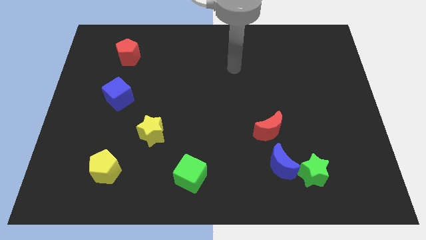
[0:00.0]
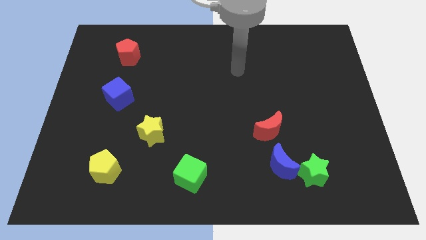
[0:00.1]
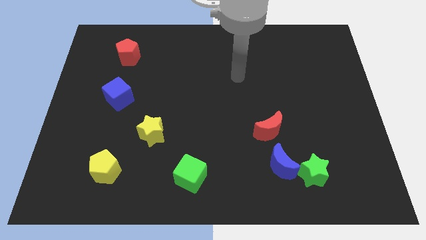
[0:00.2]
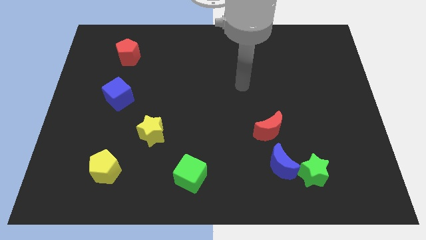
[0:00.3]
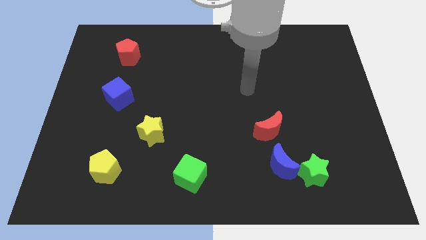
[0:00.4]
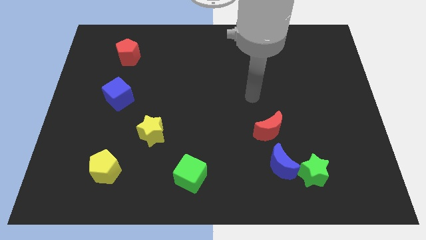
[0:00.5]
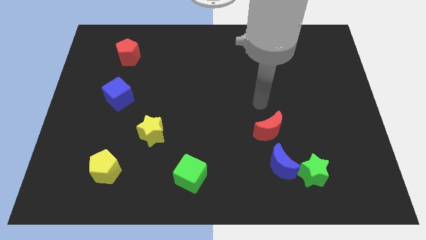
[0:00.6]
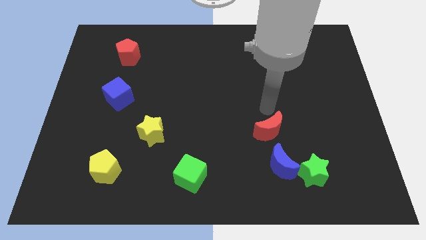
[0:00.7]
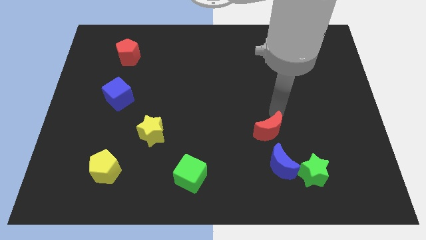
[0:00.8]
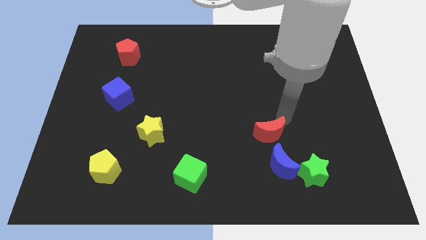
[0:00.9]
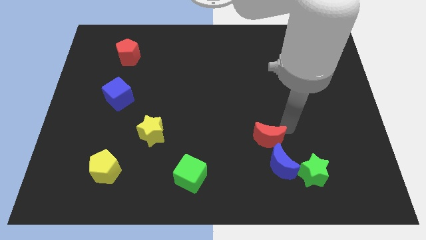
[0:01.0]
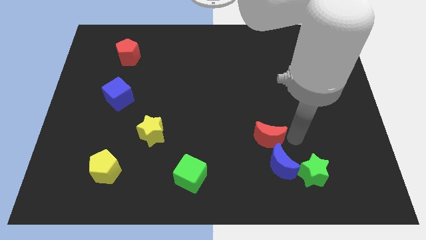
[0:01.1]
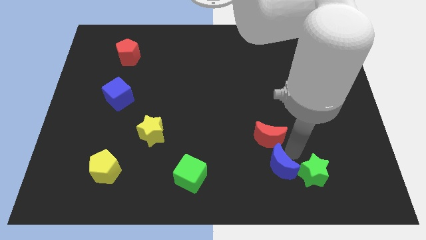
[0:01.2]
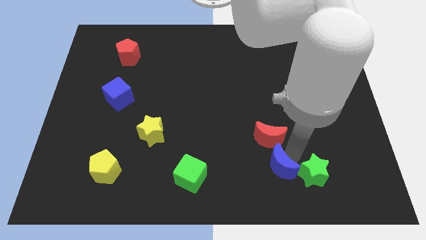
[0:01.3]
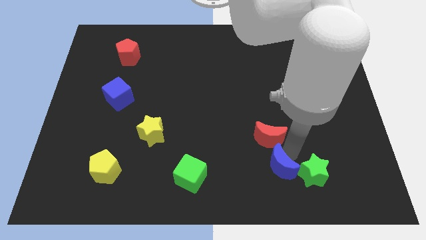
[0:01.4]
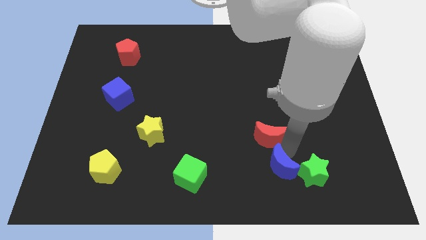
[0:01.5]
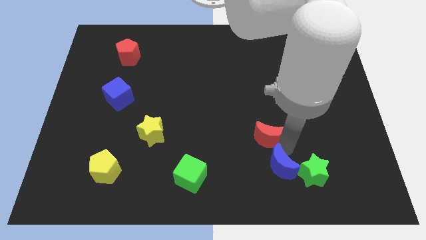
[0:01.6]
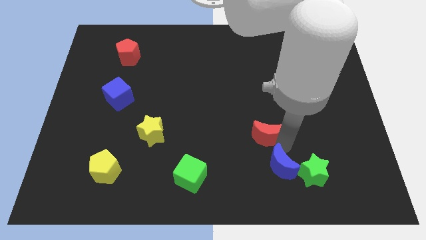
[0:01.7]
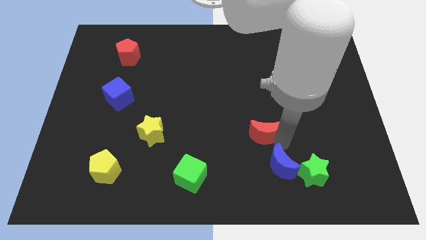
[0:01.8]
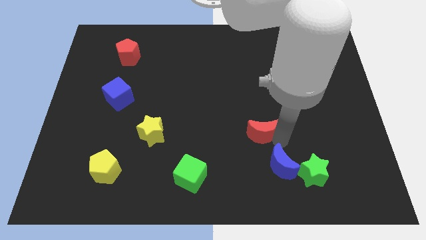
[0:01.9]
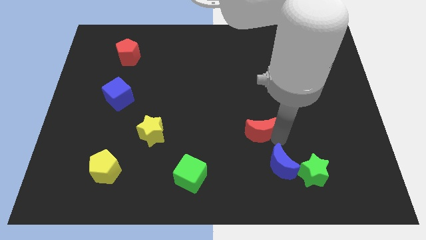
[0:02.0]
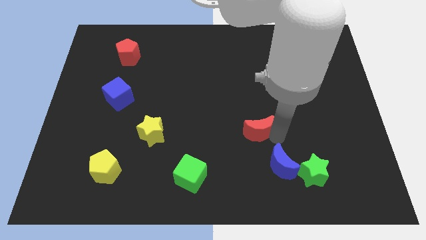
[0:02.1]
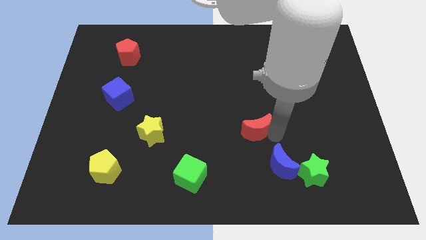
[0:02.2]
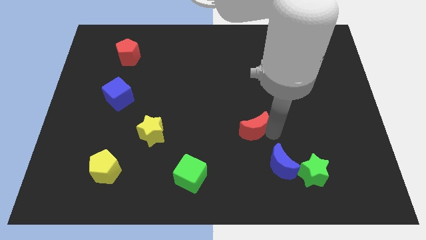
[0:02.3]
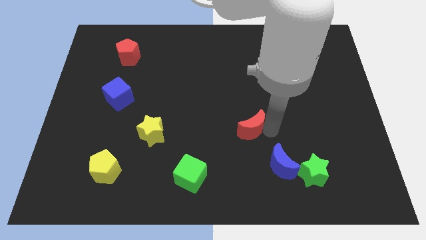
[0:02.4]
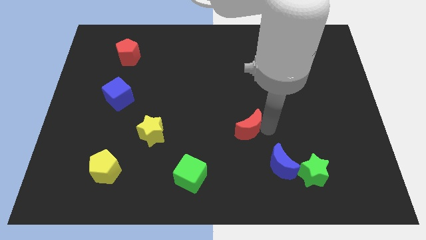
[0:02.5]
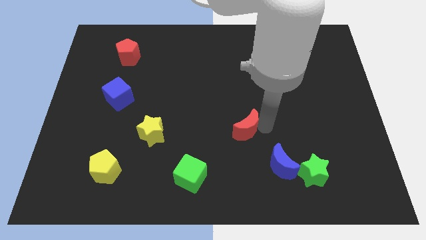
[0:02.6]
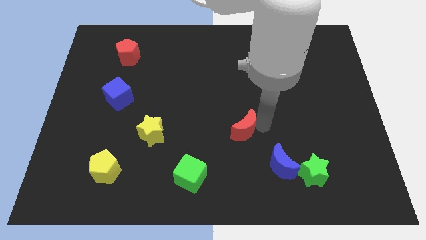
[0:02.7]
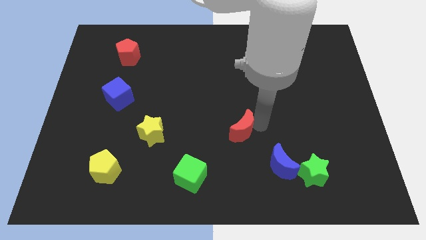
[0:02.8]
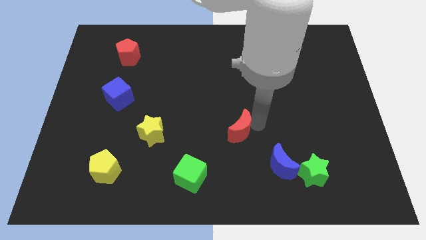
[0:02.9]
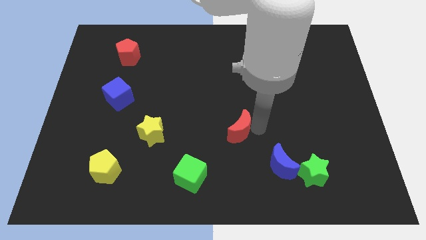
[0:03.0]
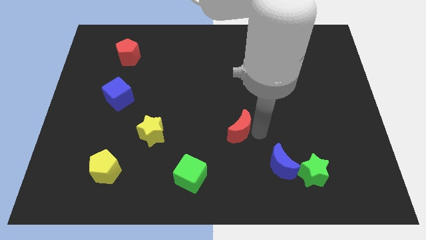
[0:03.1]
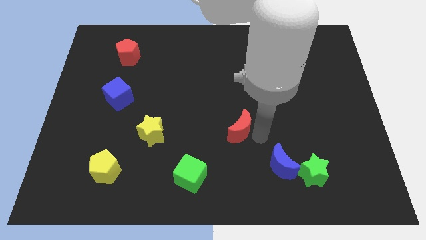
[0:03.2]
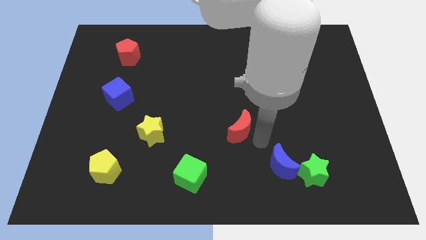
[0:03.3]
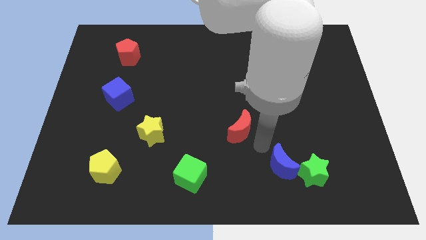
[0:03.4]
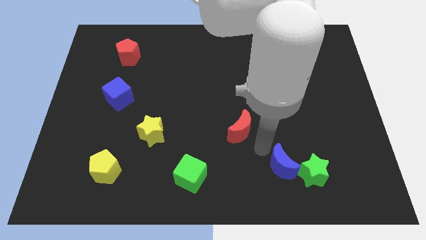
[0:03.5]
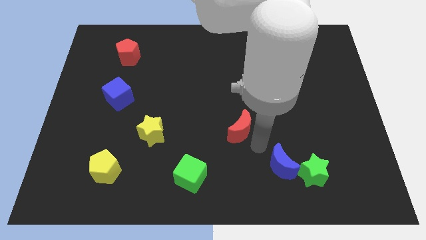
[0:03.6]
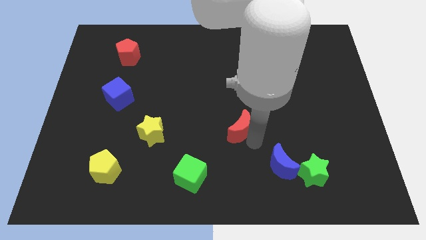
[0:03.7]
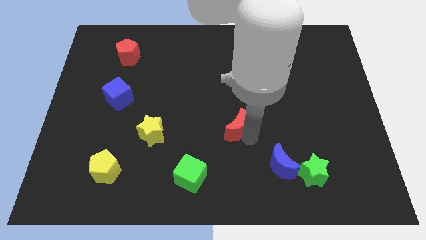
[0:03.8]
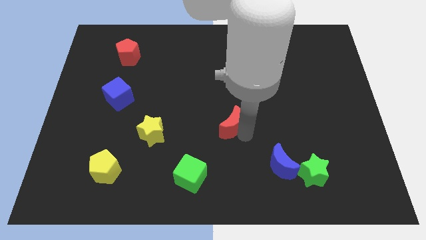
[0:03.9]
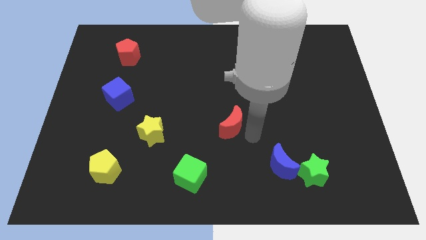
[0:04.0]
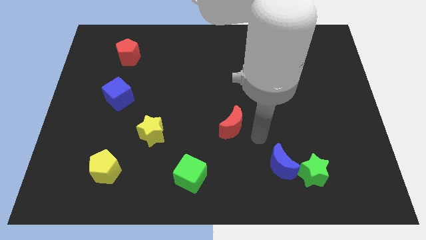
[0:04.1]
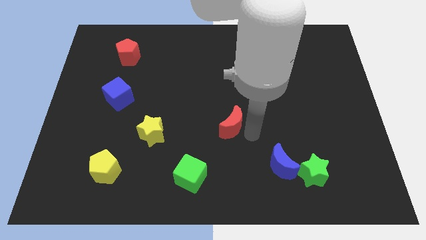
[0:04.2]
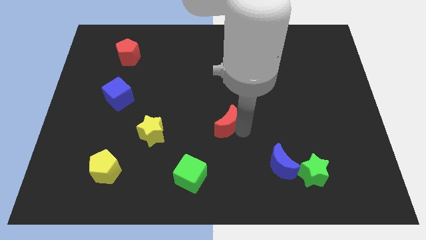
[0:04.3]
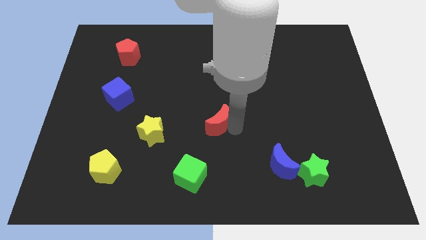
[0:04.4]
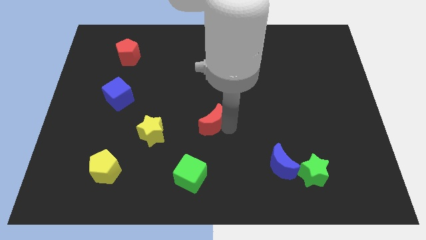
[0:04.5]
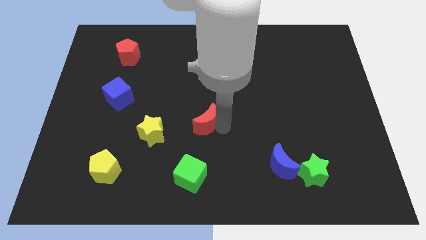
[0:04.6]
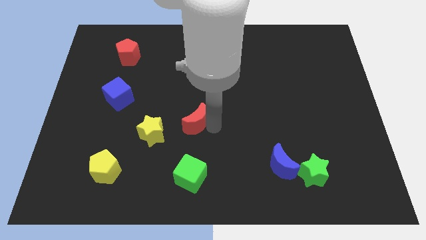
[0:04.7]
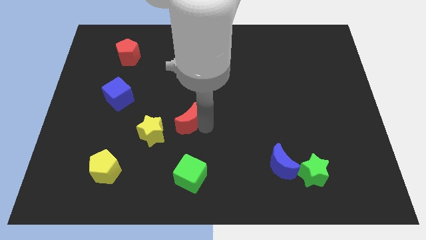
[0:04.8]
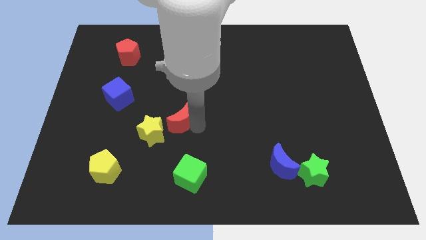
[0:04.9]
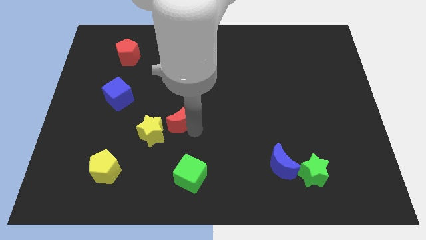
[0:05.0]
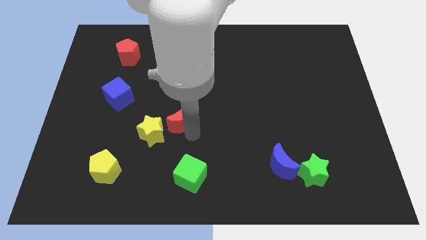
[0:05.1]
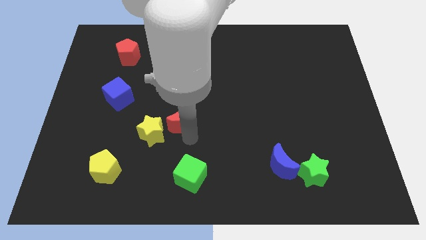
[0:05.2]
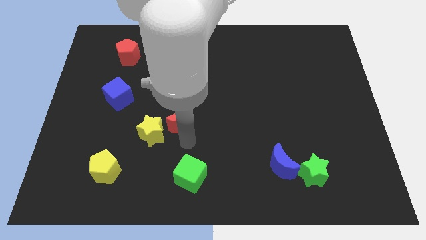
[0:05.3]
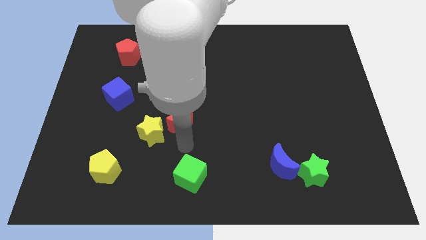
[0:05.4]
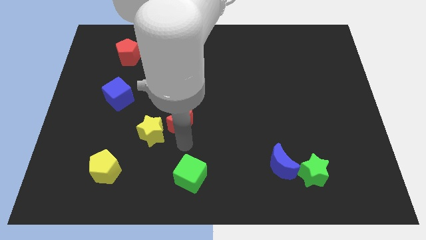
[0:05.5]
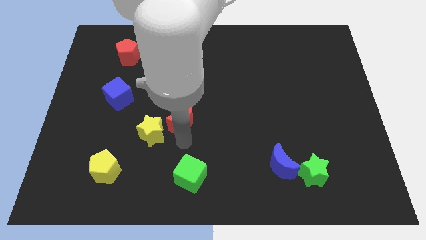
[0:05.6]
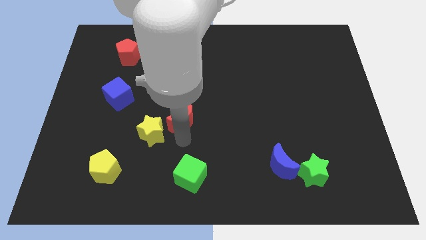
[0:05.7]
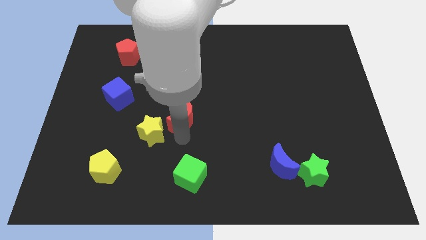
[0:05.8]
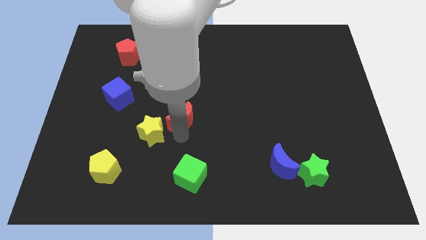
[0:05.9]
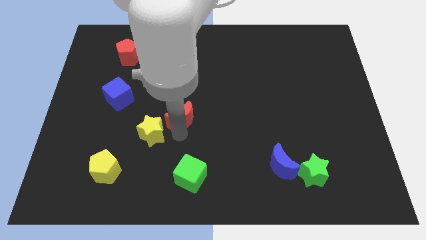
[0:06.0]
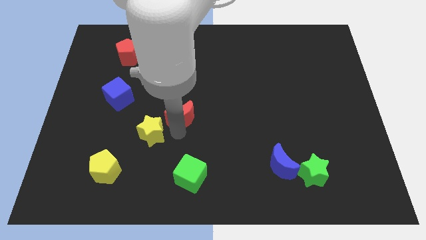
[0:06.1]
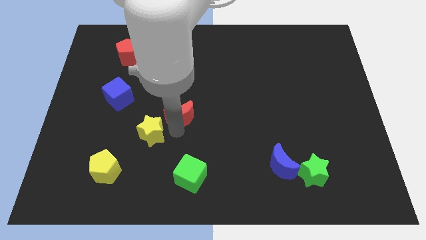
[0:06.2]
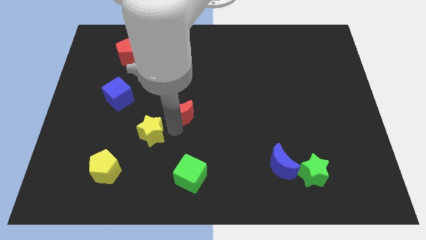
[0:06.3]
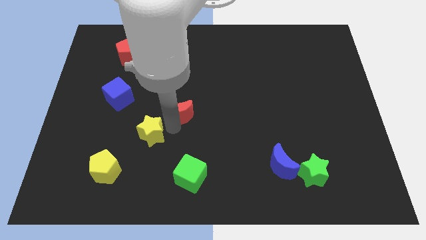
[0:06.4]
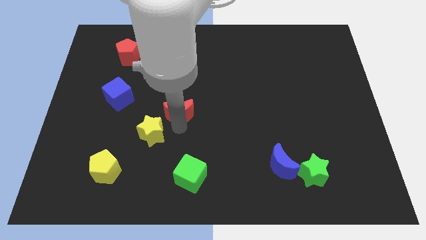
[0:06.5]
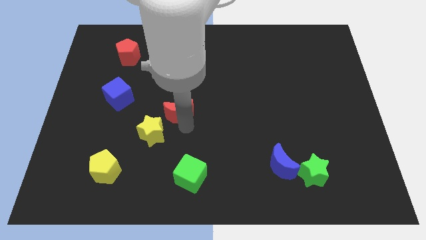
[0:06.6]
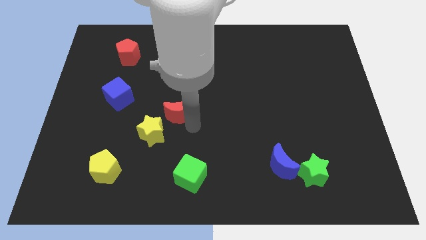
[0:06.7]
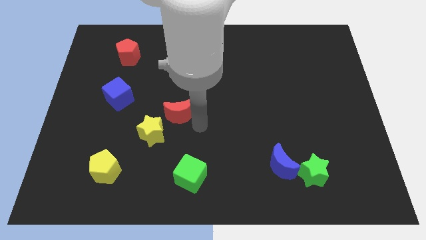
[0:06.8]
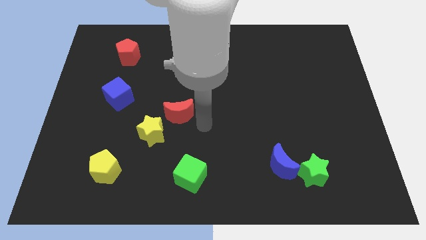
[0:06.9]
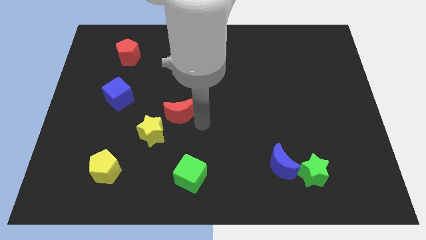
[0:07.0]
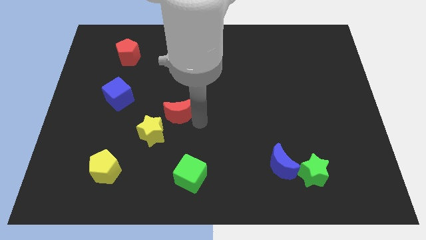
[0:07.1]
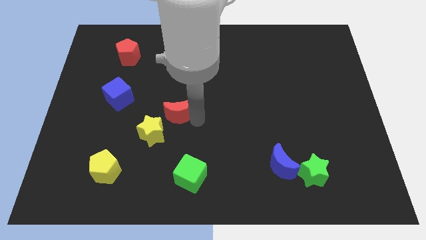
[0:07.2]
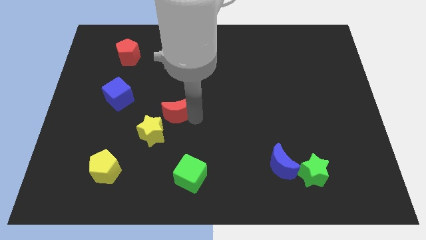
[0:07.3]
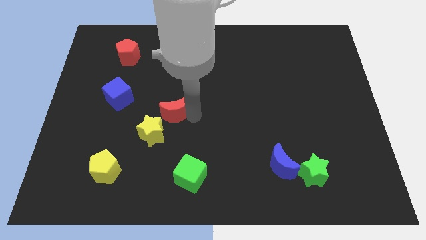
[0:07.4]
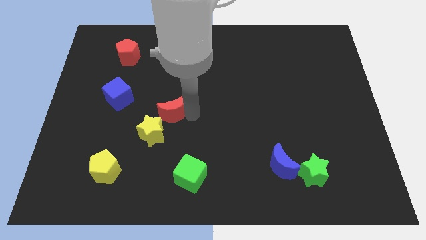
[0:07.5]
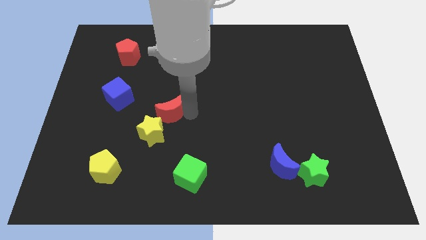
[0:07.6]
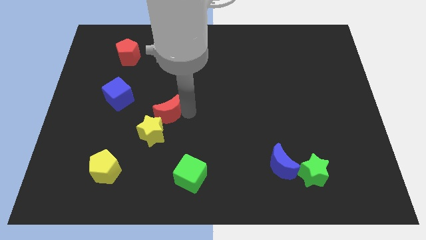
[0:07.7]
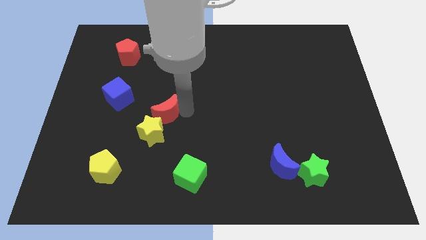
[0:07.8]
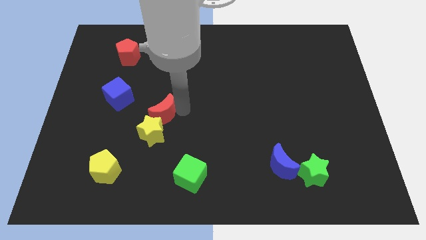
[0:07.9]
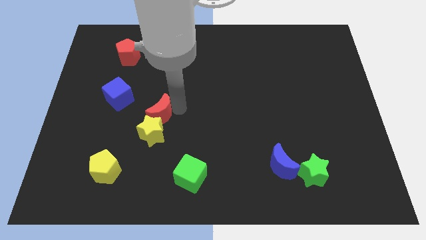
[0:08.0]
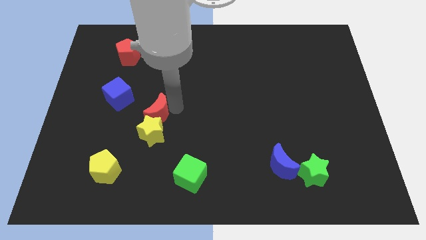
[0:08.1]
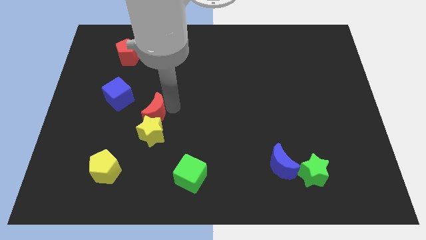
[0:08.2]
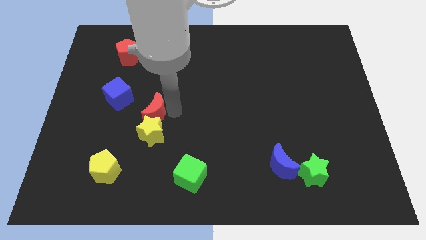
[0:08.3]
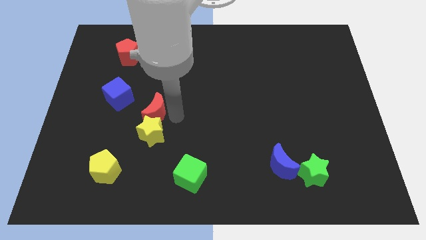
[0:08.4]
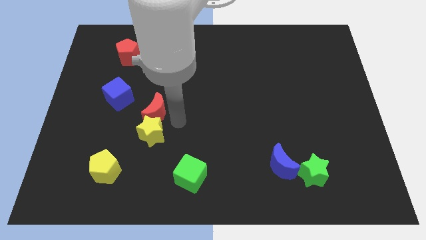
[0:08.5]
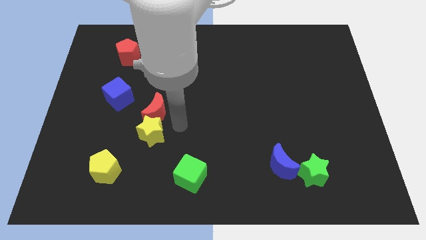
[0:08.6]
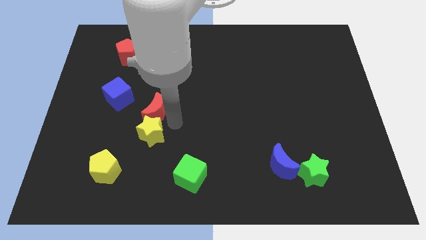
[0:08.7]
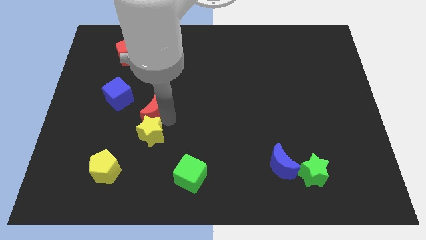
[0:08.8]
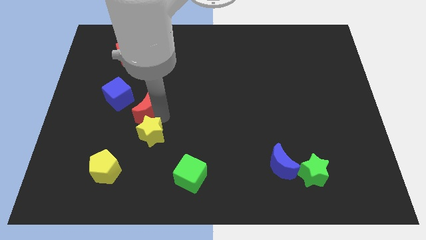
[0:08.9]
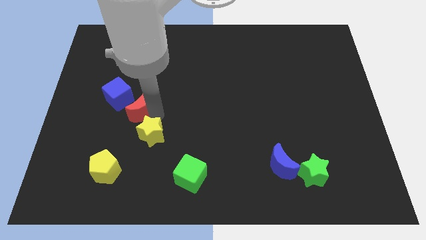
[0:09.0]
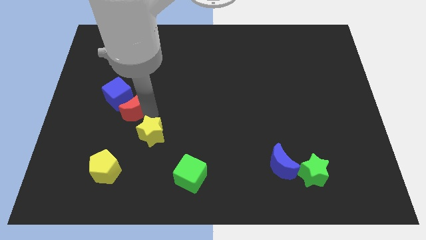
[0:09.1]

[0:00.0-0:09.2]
move the red moon next to the blue cube
